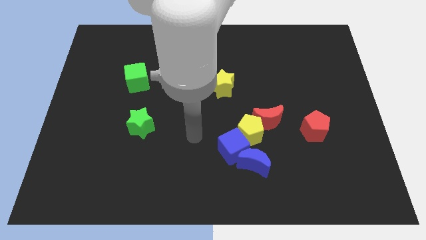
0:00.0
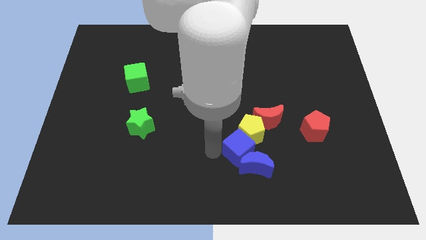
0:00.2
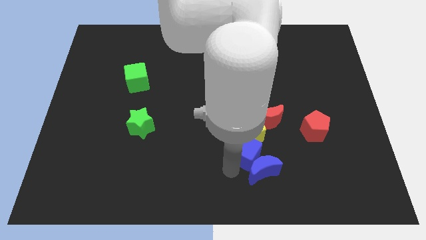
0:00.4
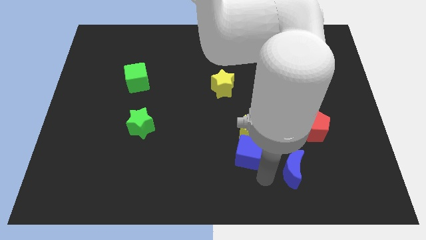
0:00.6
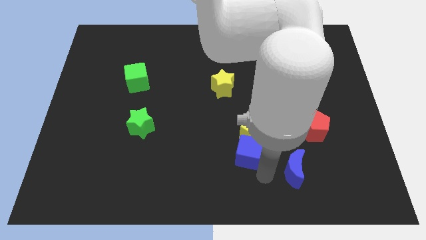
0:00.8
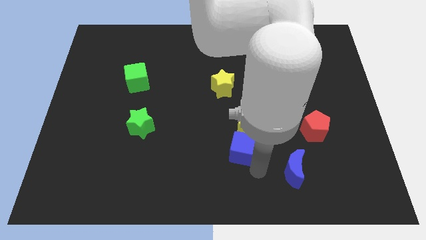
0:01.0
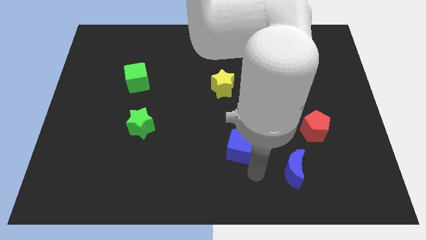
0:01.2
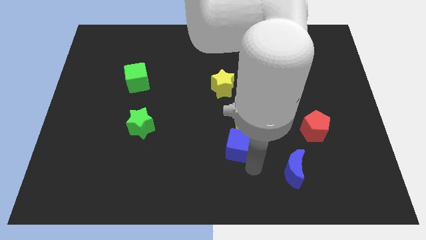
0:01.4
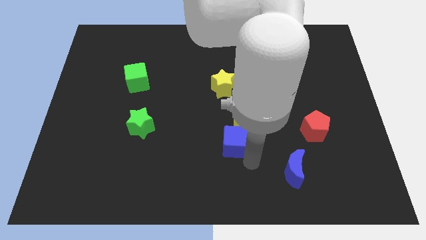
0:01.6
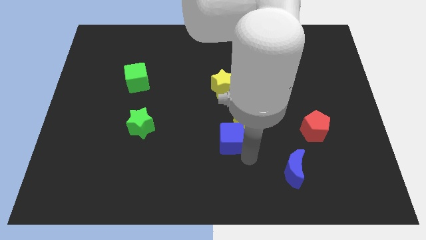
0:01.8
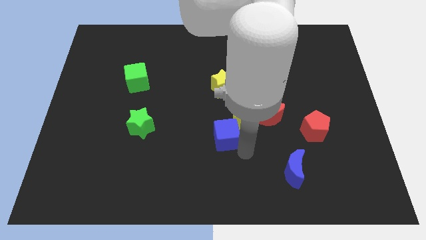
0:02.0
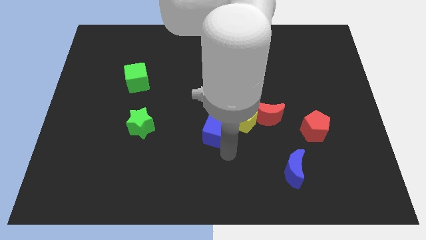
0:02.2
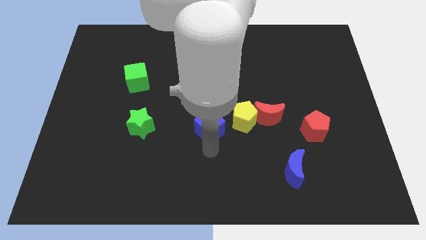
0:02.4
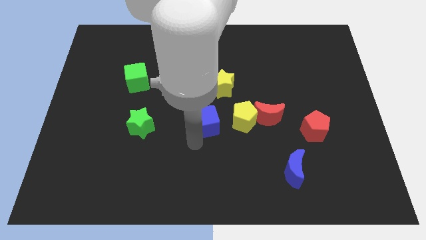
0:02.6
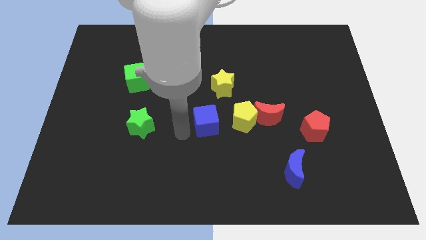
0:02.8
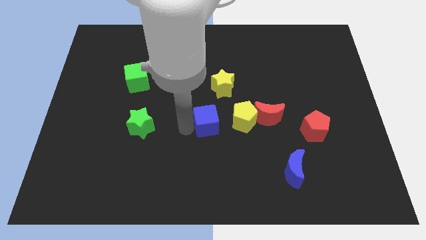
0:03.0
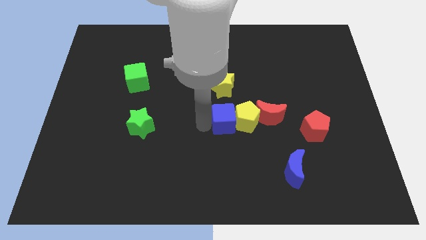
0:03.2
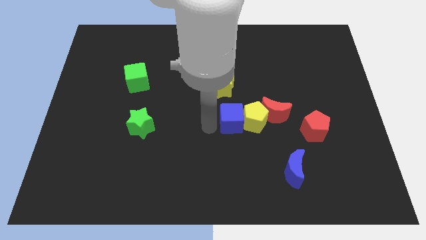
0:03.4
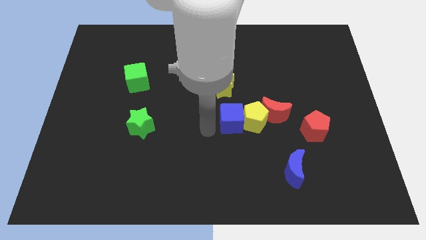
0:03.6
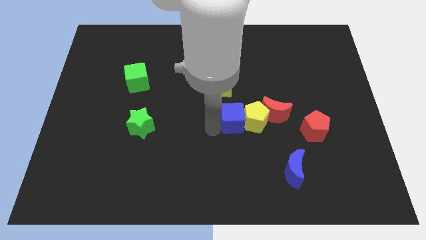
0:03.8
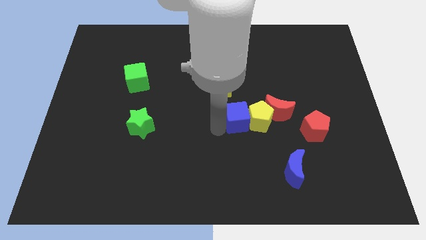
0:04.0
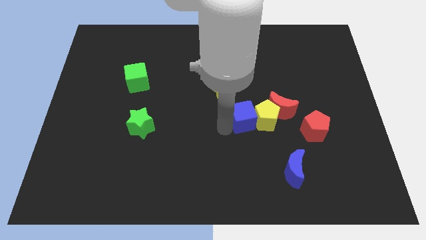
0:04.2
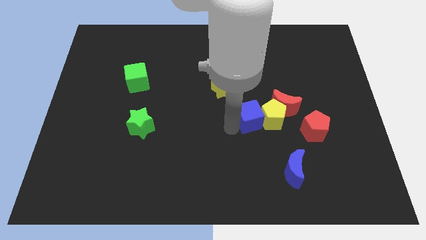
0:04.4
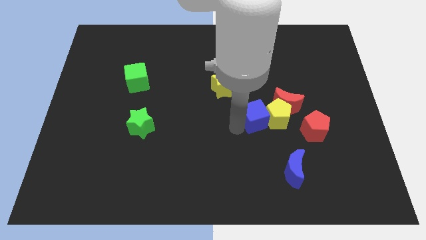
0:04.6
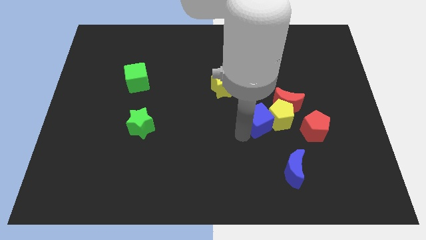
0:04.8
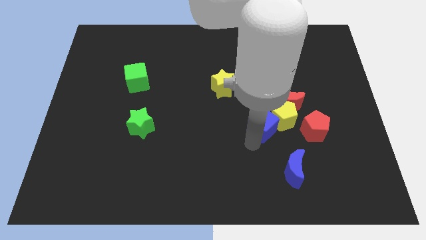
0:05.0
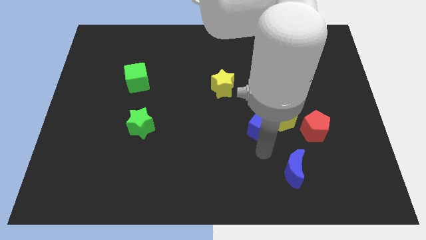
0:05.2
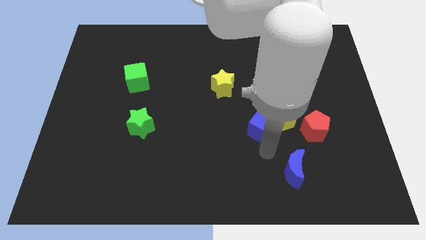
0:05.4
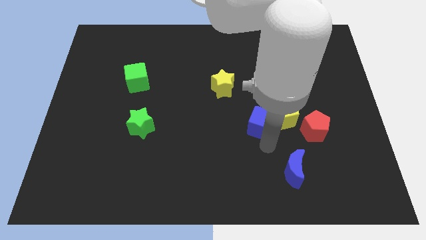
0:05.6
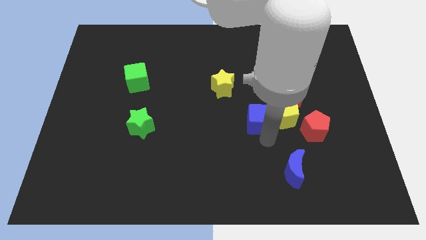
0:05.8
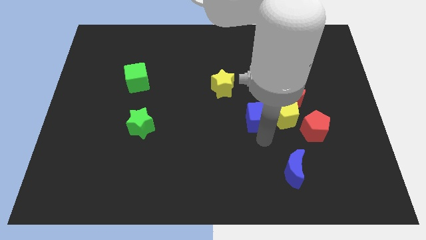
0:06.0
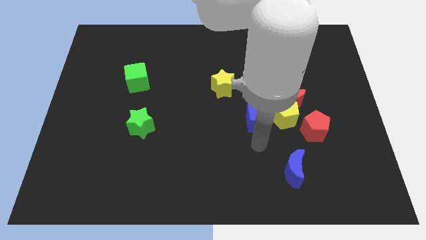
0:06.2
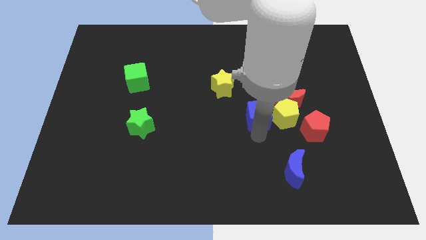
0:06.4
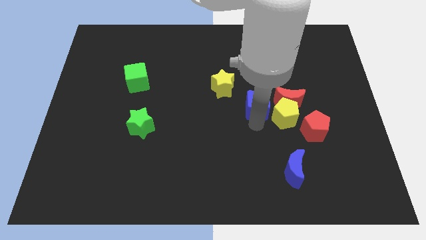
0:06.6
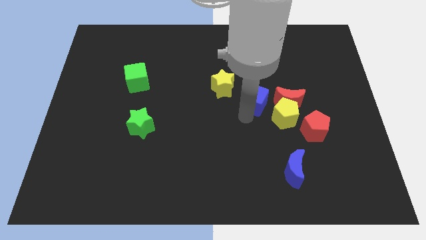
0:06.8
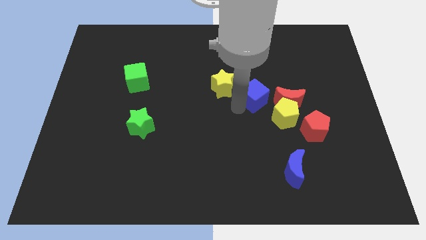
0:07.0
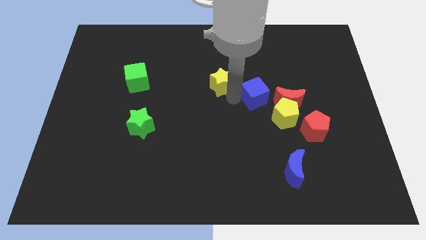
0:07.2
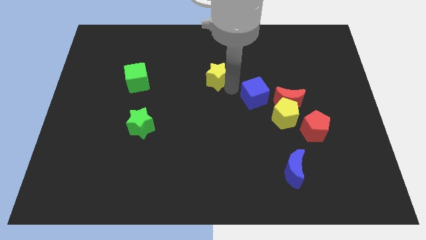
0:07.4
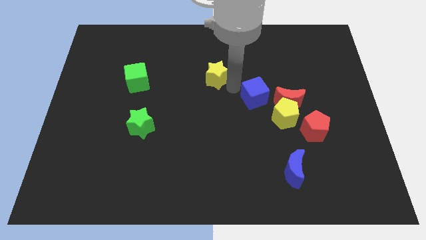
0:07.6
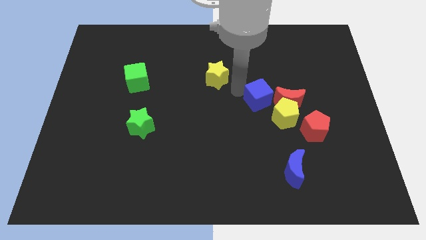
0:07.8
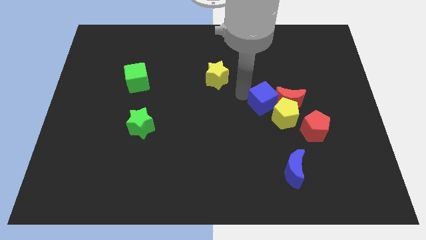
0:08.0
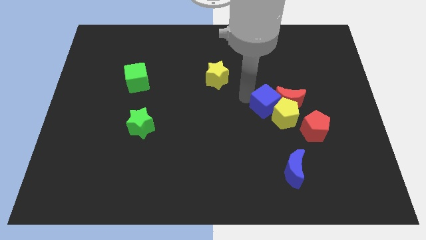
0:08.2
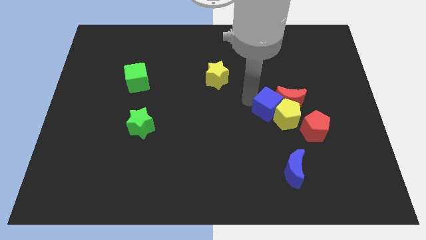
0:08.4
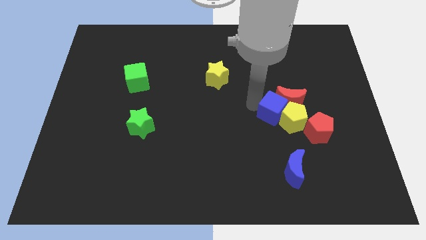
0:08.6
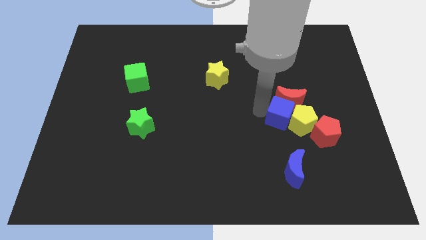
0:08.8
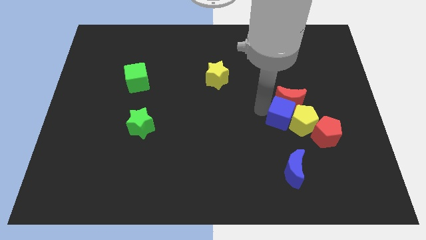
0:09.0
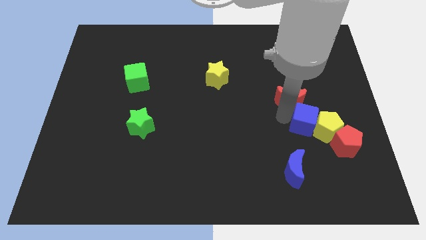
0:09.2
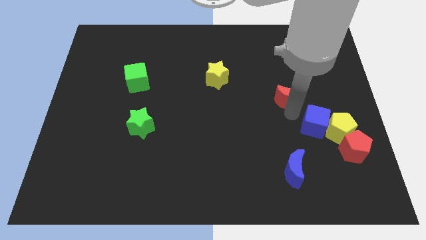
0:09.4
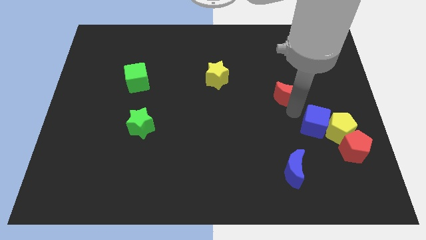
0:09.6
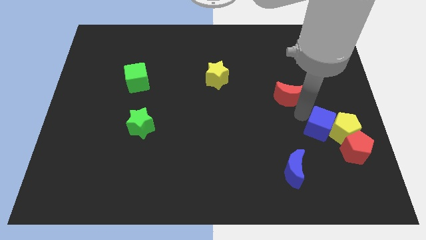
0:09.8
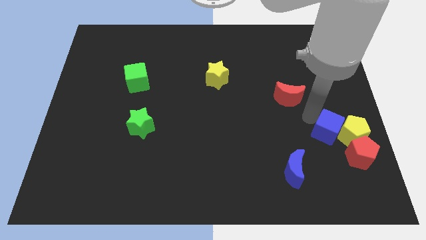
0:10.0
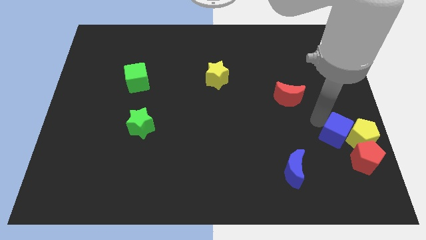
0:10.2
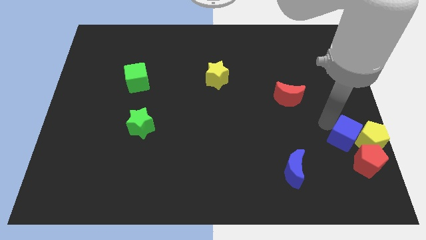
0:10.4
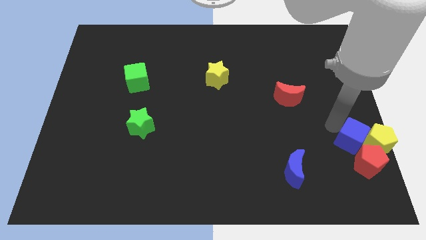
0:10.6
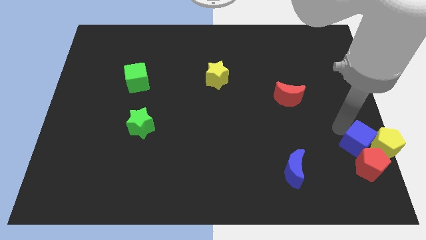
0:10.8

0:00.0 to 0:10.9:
slide the blue cube towards the red pentagon

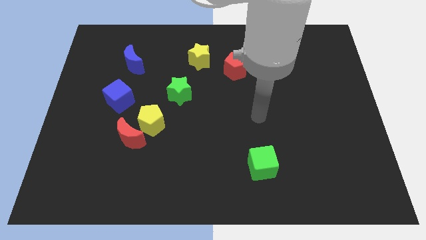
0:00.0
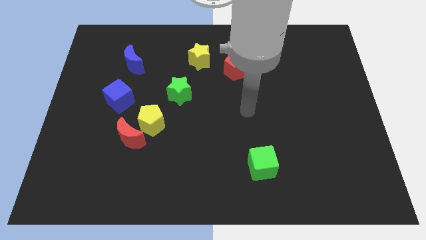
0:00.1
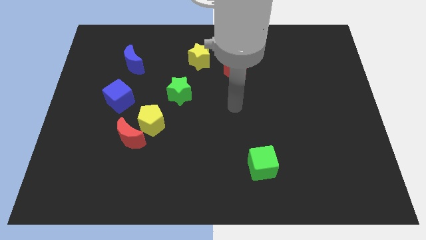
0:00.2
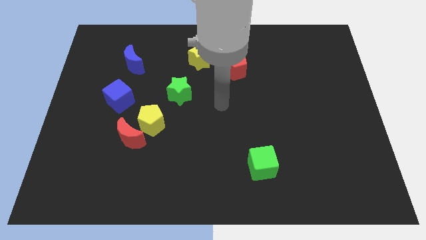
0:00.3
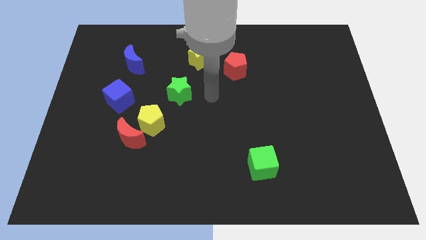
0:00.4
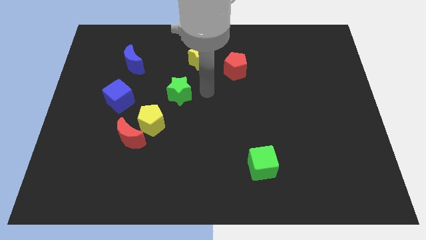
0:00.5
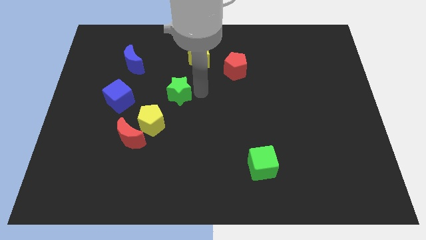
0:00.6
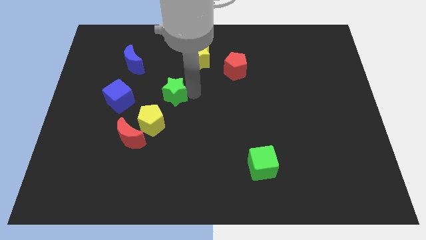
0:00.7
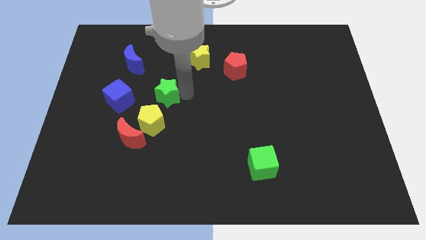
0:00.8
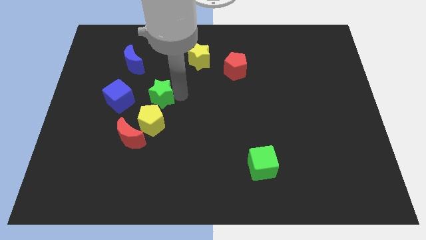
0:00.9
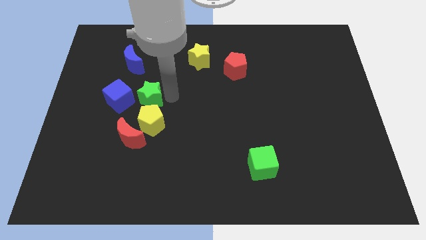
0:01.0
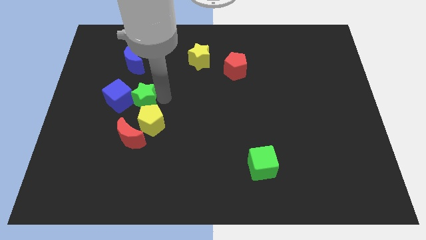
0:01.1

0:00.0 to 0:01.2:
slide the green star towards the blue cube

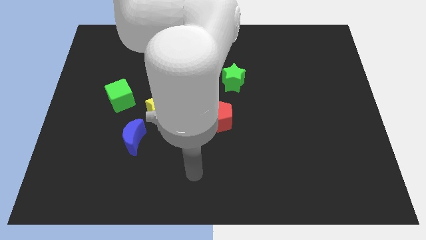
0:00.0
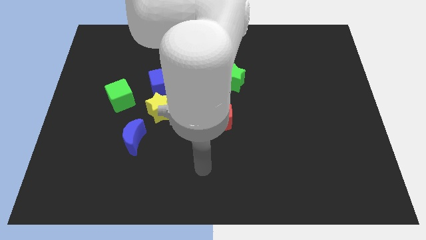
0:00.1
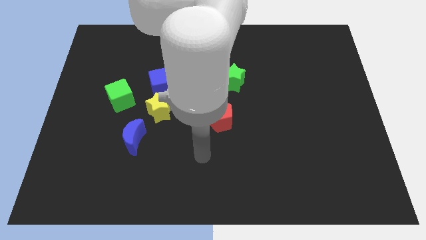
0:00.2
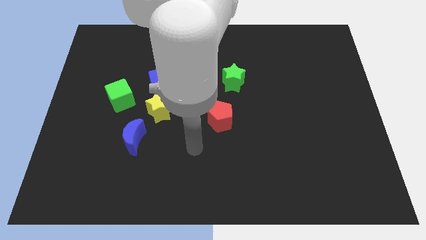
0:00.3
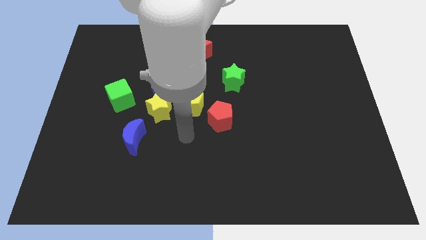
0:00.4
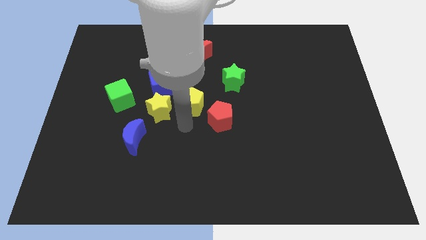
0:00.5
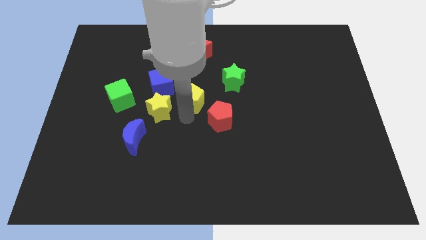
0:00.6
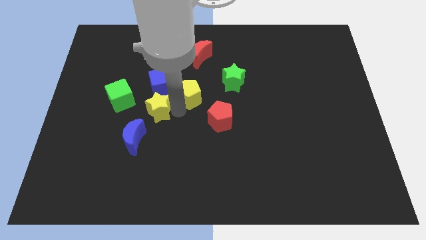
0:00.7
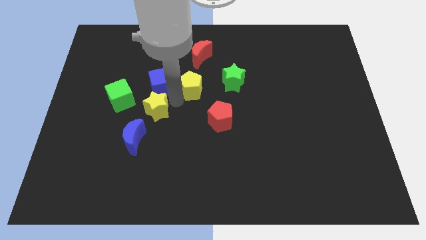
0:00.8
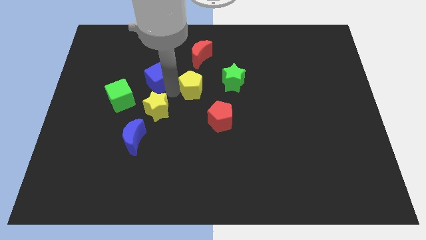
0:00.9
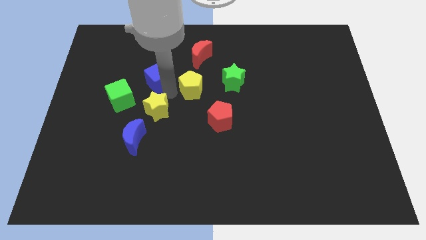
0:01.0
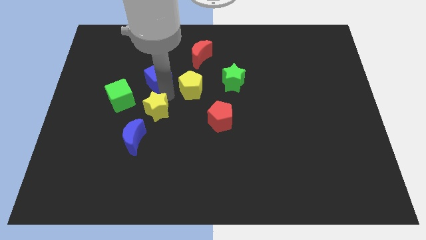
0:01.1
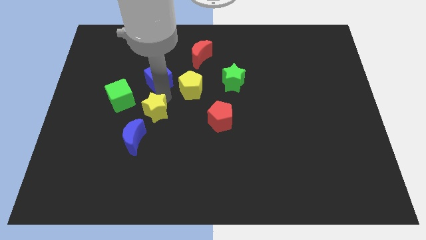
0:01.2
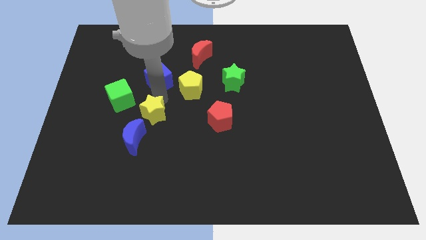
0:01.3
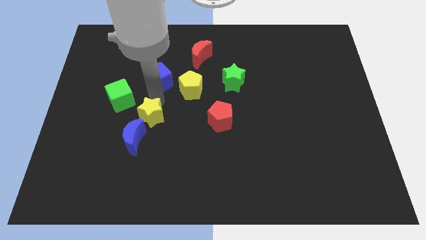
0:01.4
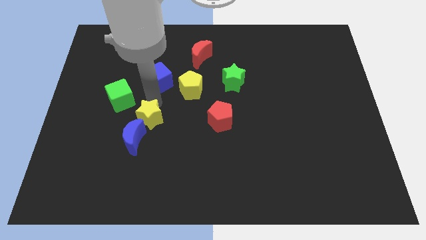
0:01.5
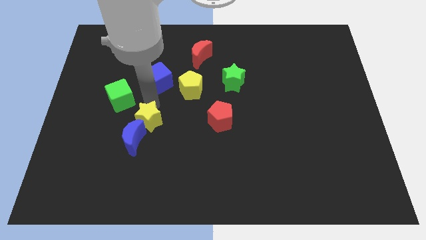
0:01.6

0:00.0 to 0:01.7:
move the yellow star next to the blue moon
